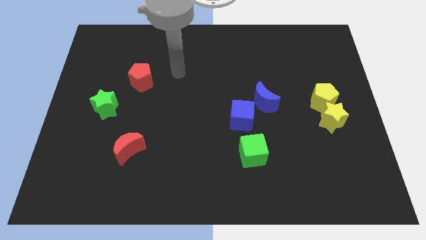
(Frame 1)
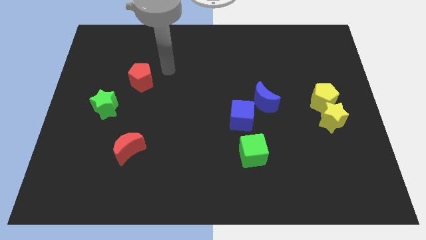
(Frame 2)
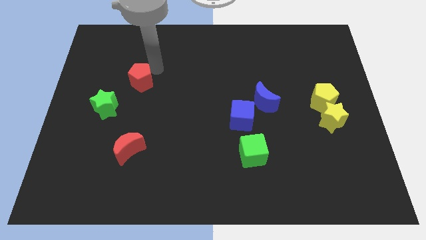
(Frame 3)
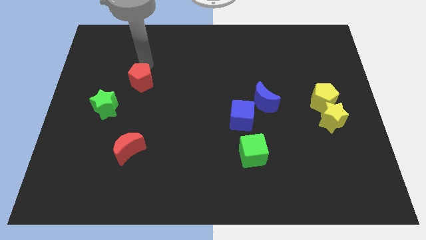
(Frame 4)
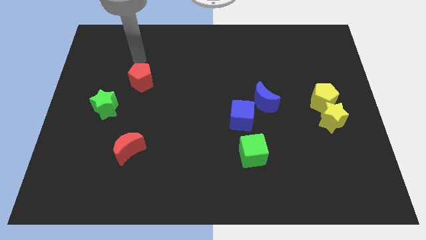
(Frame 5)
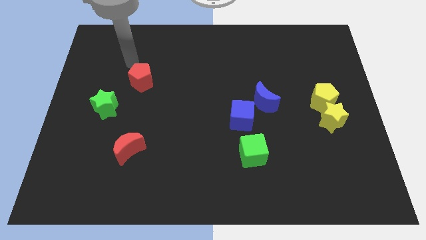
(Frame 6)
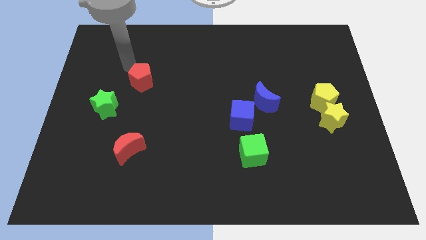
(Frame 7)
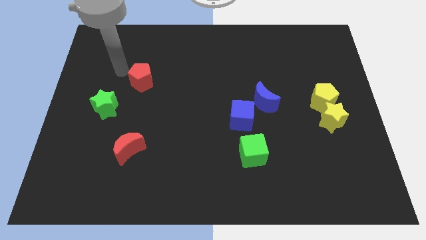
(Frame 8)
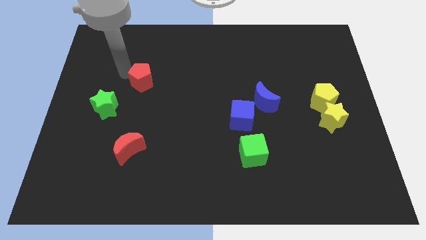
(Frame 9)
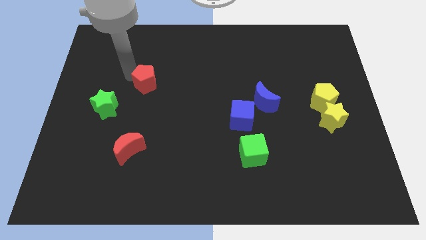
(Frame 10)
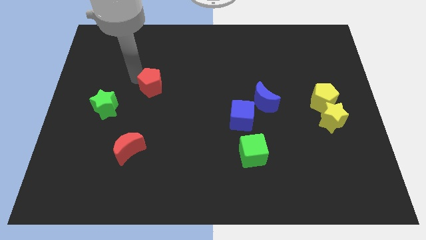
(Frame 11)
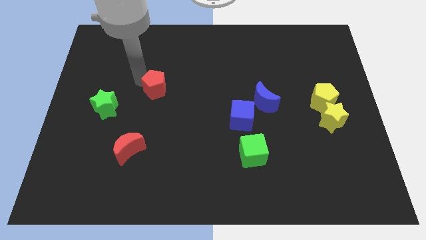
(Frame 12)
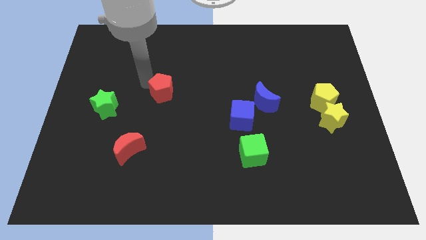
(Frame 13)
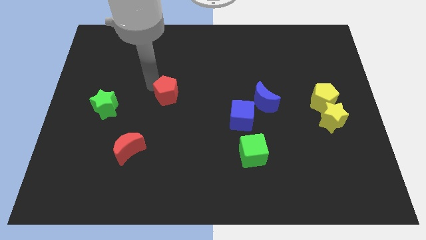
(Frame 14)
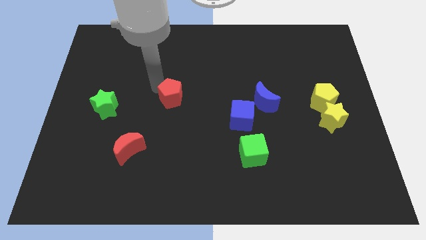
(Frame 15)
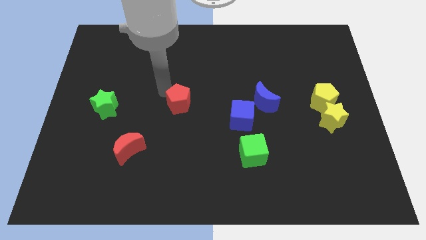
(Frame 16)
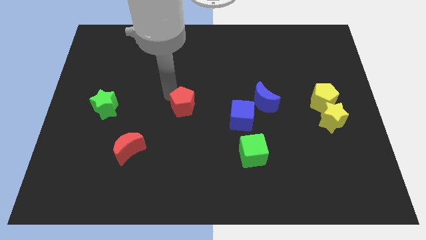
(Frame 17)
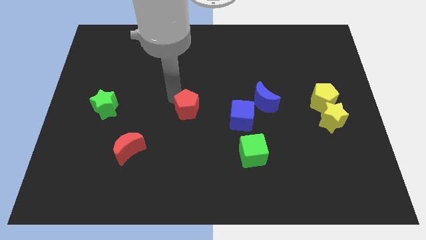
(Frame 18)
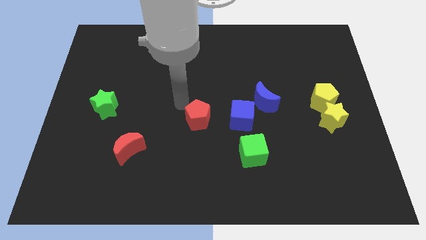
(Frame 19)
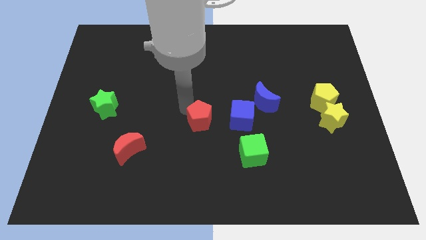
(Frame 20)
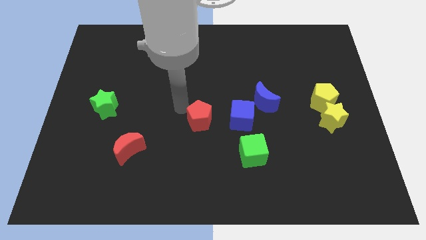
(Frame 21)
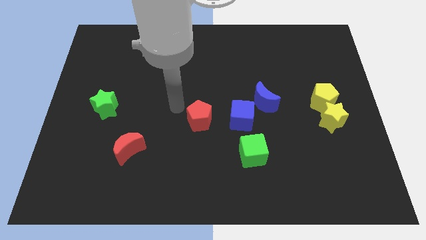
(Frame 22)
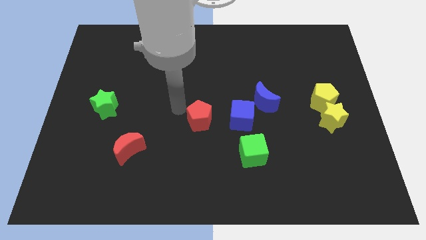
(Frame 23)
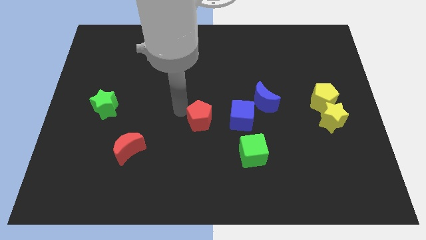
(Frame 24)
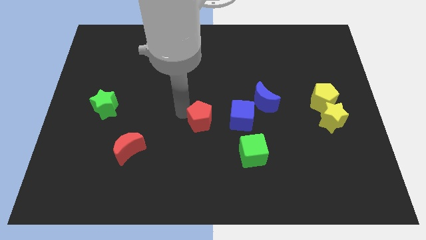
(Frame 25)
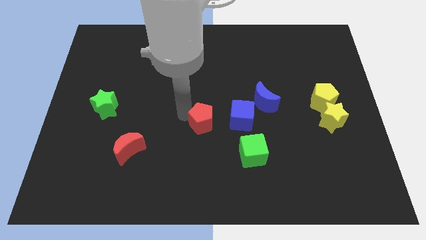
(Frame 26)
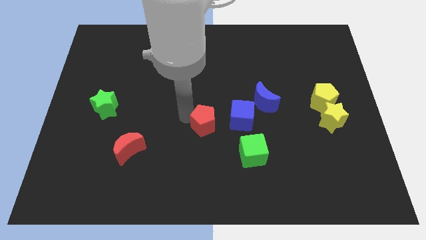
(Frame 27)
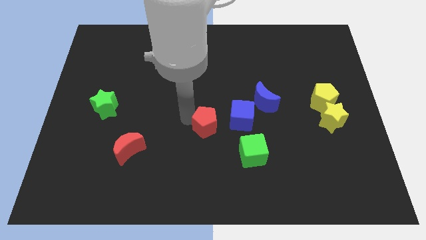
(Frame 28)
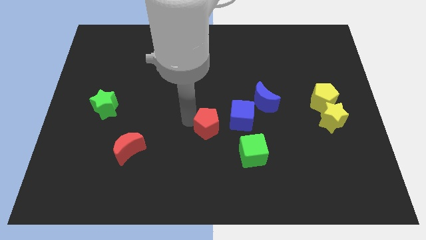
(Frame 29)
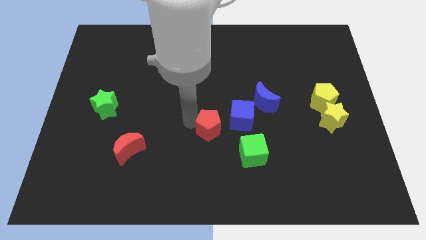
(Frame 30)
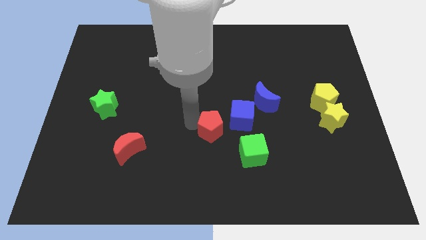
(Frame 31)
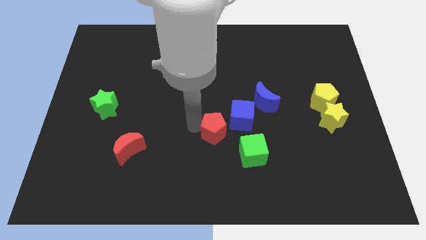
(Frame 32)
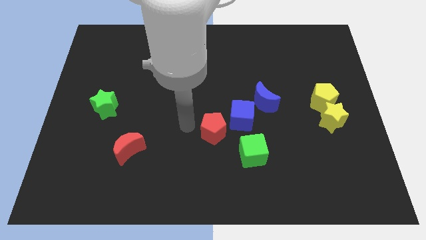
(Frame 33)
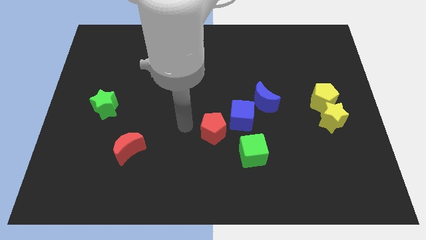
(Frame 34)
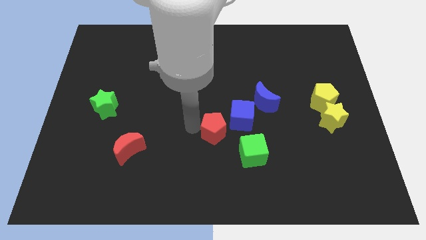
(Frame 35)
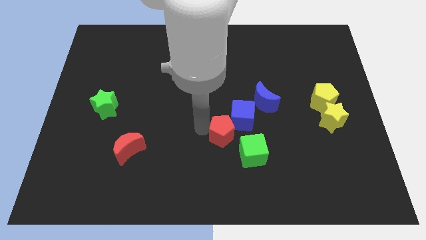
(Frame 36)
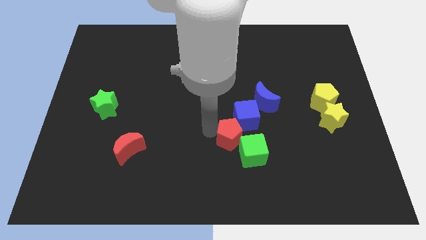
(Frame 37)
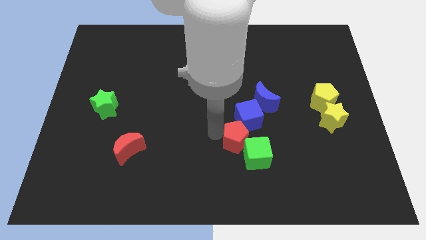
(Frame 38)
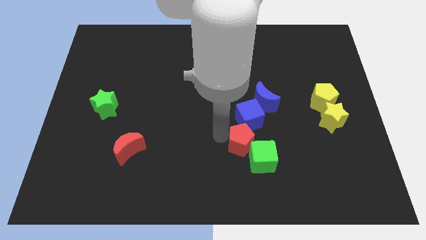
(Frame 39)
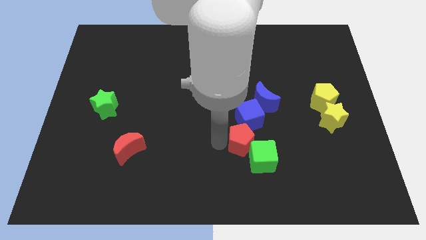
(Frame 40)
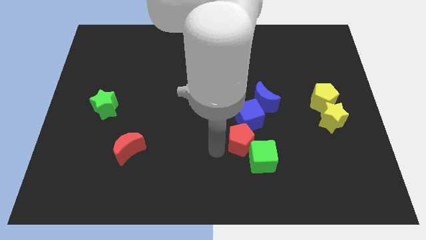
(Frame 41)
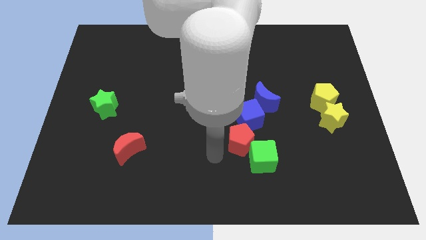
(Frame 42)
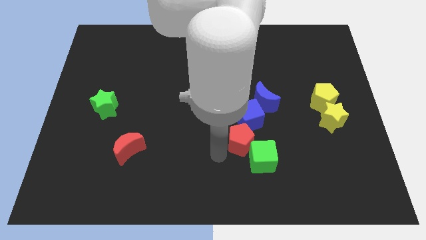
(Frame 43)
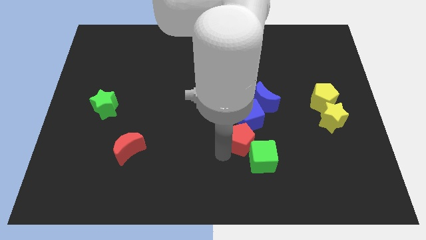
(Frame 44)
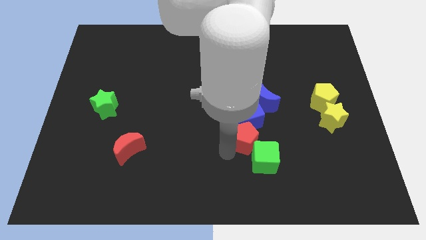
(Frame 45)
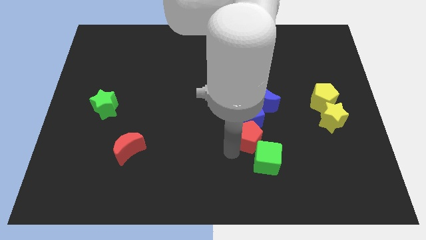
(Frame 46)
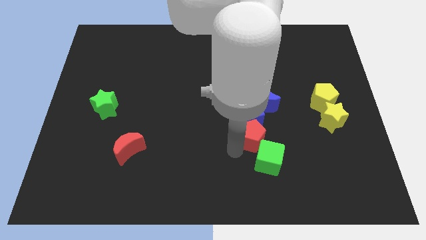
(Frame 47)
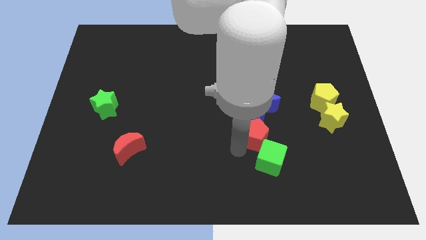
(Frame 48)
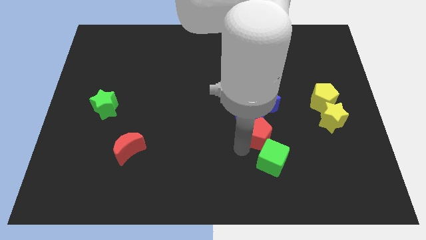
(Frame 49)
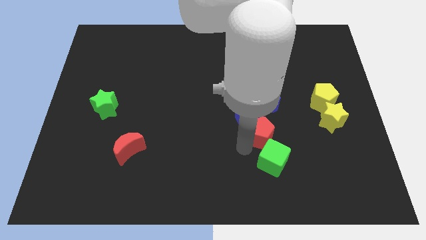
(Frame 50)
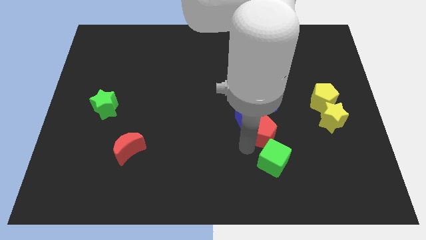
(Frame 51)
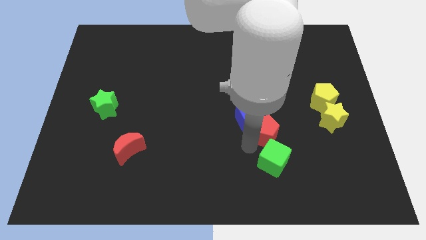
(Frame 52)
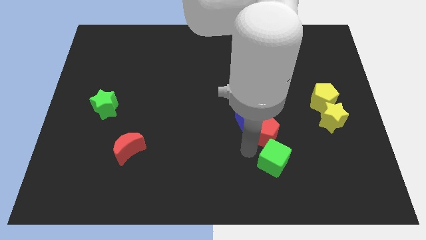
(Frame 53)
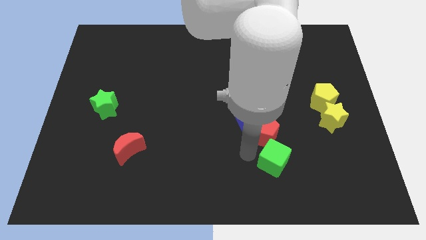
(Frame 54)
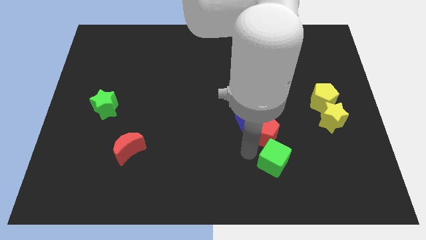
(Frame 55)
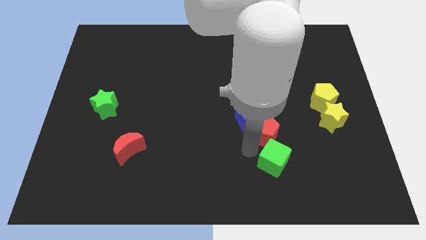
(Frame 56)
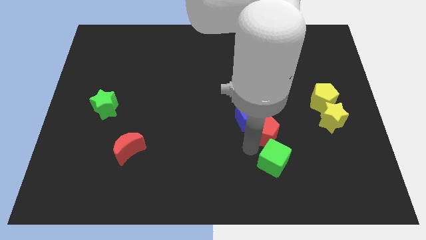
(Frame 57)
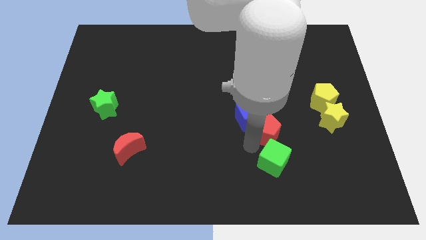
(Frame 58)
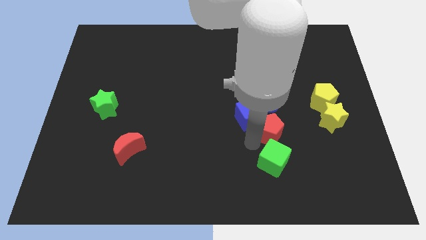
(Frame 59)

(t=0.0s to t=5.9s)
slide the red pentagon just left of the yellow star

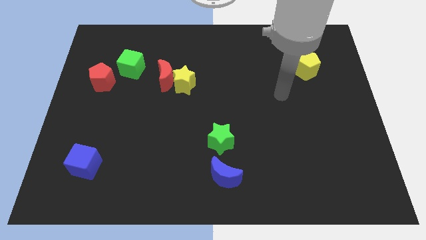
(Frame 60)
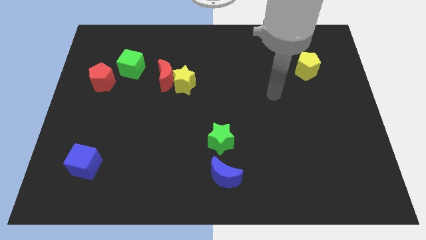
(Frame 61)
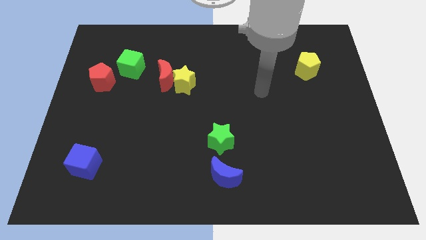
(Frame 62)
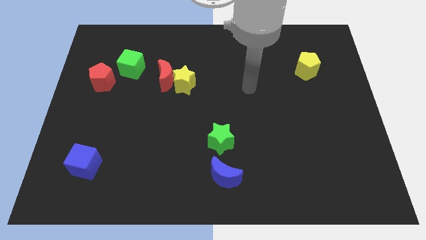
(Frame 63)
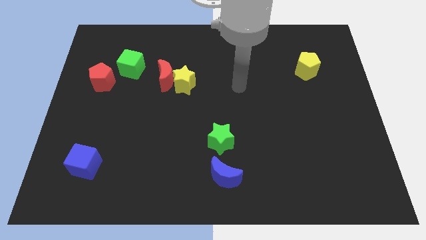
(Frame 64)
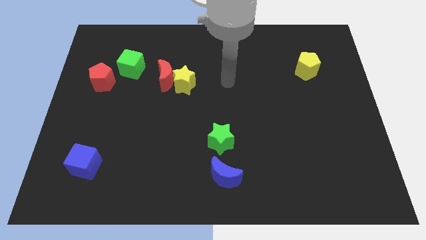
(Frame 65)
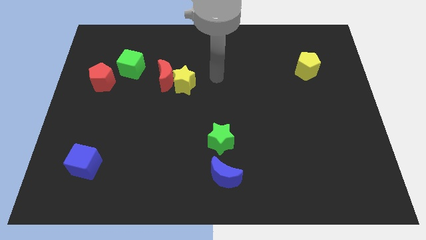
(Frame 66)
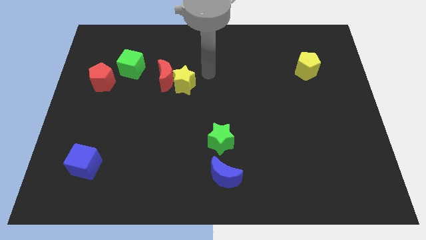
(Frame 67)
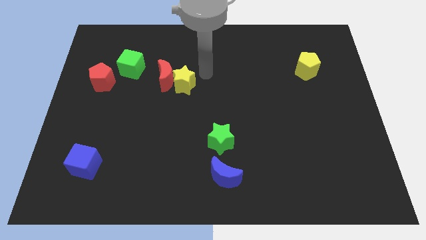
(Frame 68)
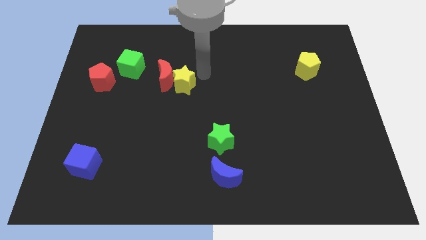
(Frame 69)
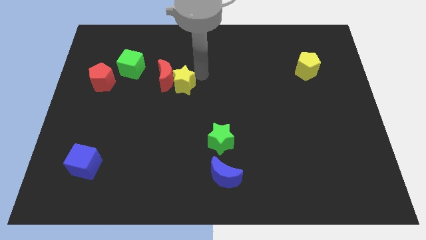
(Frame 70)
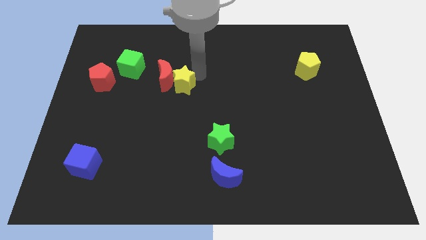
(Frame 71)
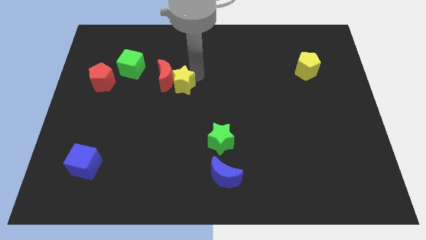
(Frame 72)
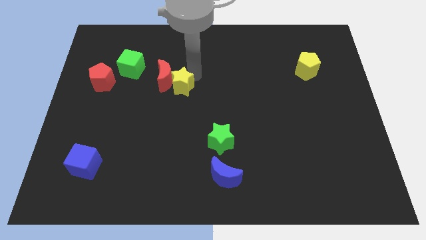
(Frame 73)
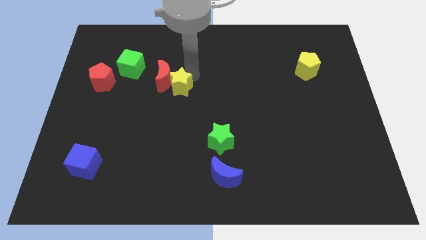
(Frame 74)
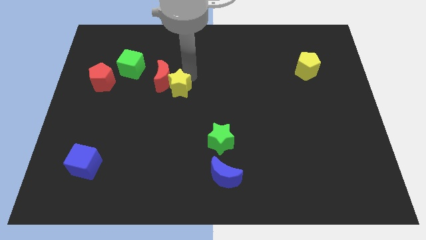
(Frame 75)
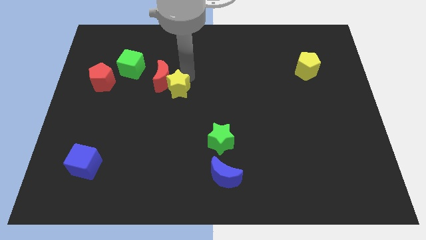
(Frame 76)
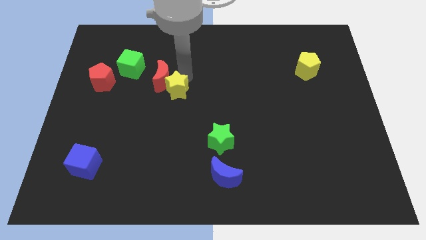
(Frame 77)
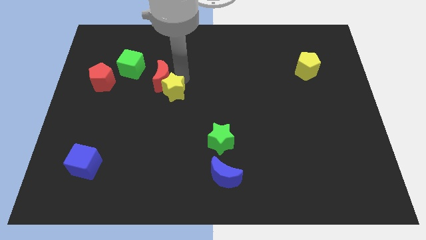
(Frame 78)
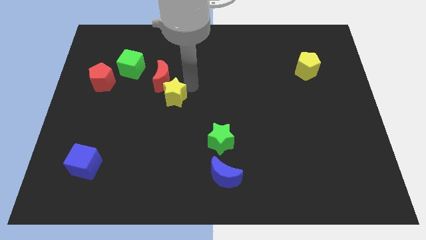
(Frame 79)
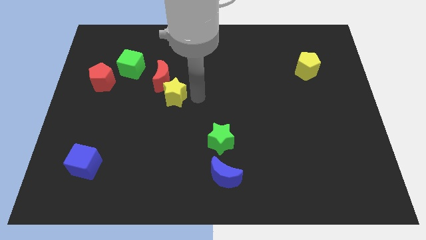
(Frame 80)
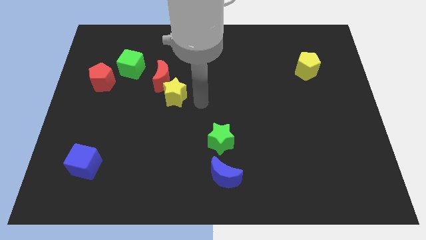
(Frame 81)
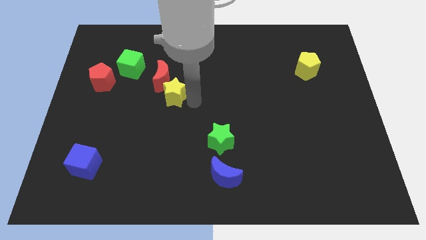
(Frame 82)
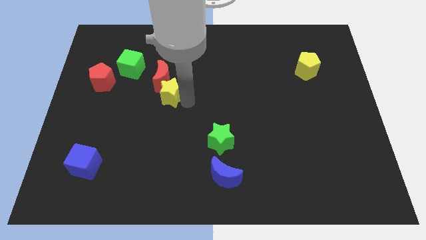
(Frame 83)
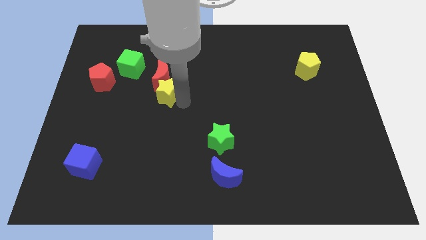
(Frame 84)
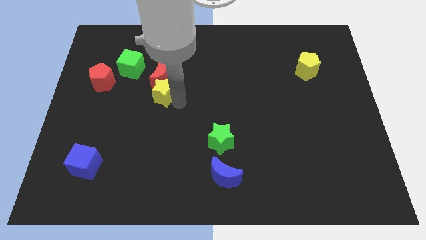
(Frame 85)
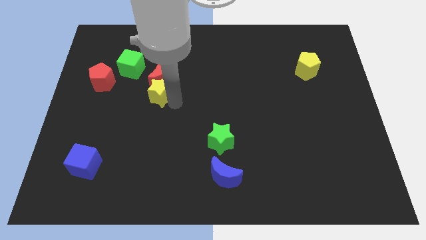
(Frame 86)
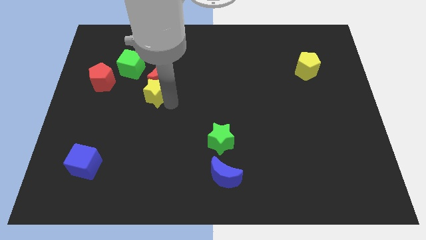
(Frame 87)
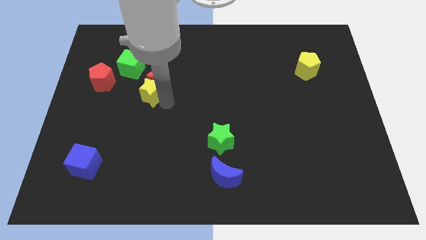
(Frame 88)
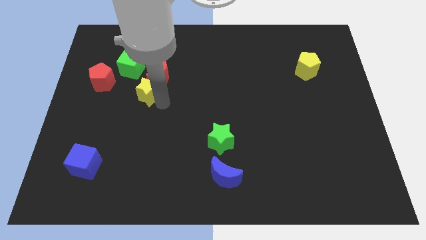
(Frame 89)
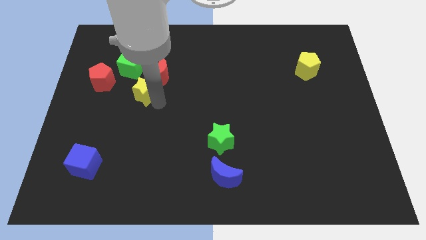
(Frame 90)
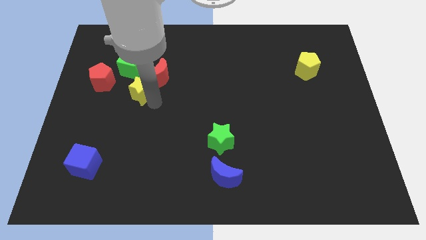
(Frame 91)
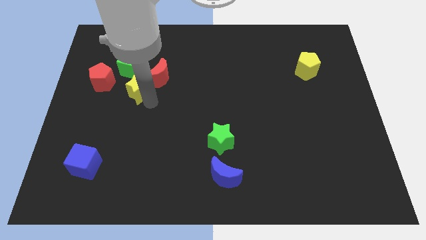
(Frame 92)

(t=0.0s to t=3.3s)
slide the yellow star just left of the red moon
